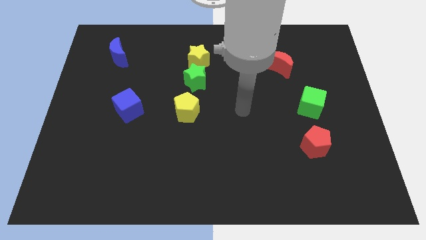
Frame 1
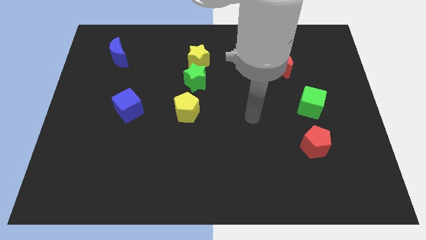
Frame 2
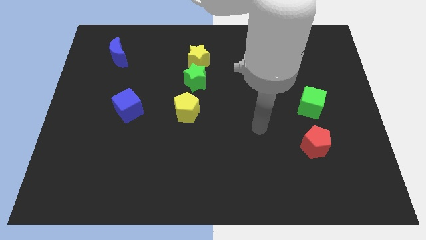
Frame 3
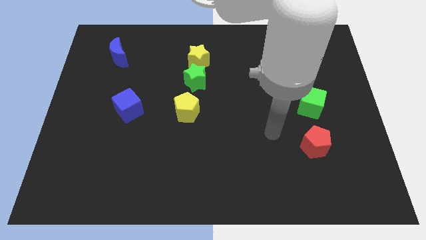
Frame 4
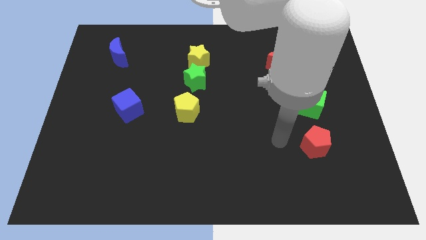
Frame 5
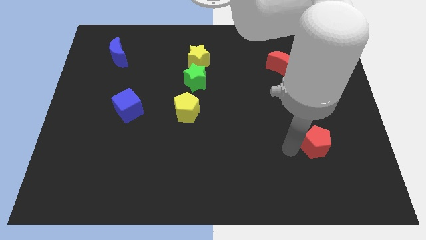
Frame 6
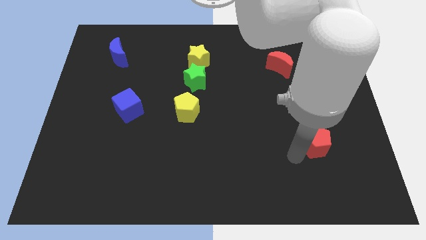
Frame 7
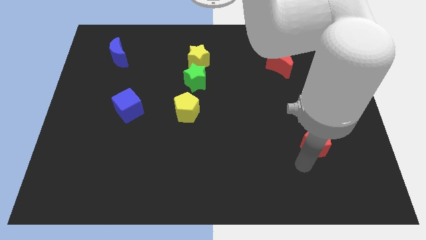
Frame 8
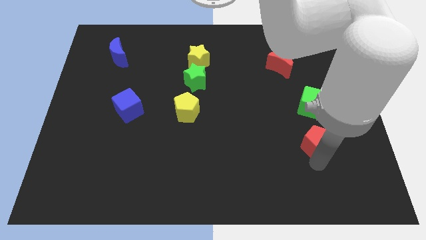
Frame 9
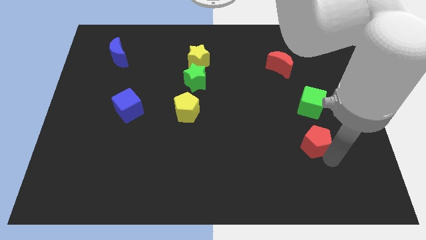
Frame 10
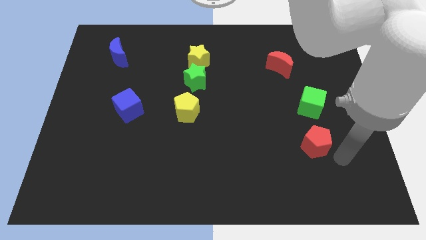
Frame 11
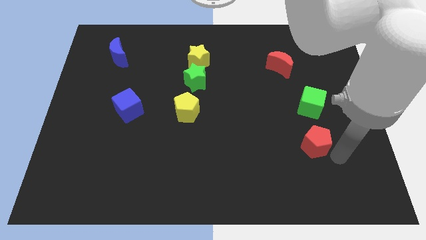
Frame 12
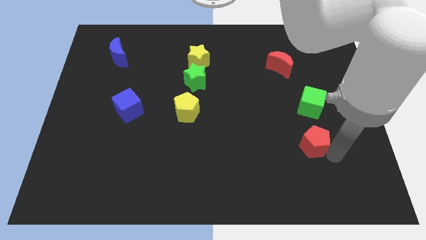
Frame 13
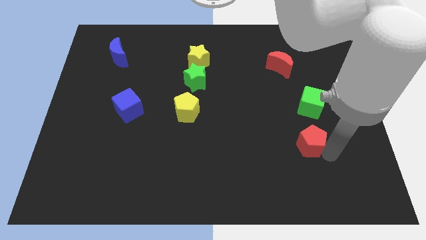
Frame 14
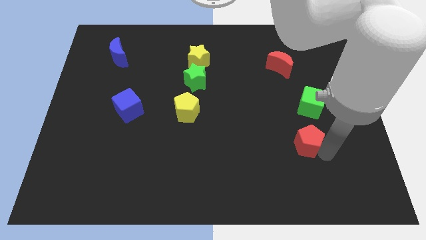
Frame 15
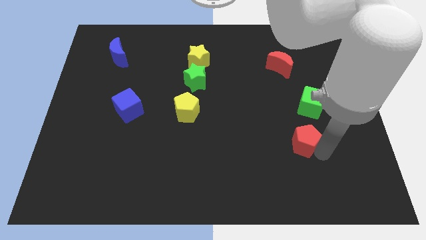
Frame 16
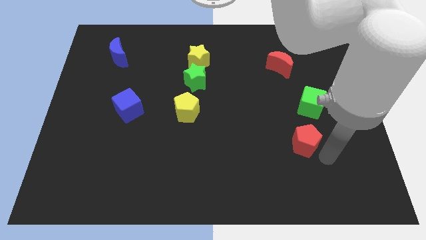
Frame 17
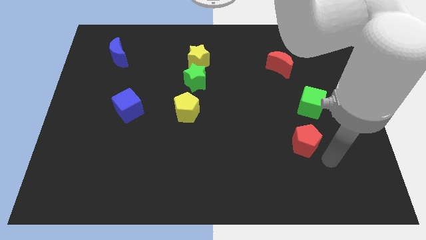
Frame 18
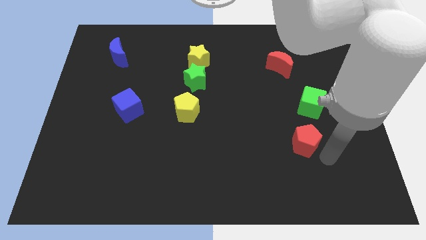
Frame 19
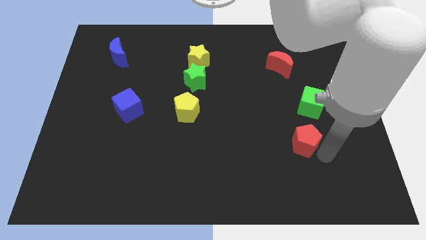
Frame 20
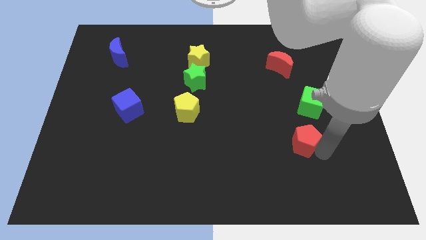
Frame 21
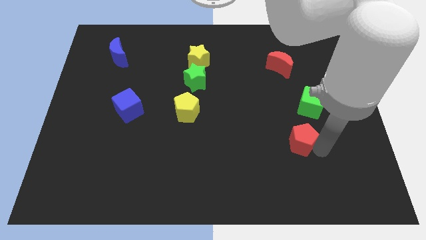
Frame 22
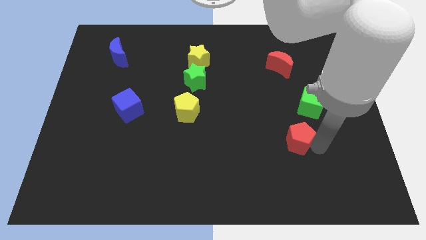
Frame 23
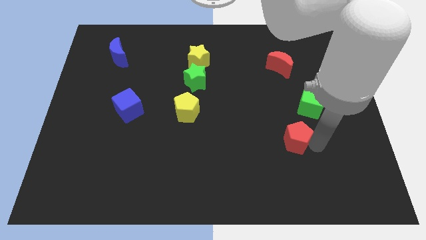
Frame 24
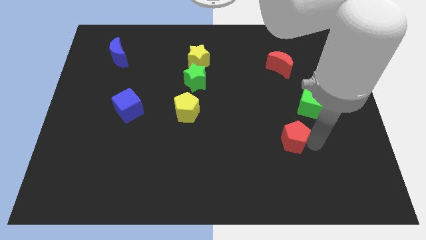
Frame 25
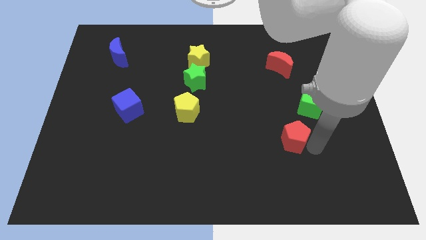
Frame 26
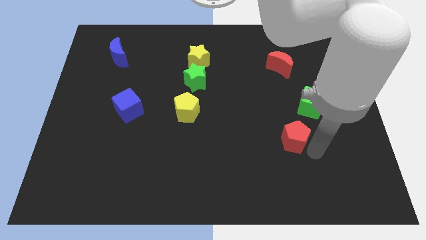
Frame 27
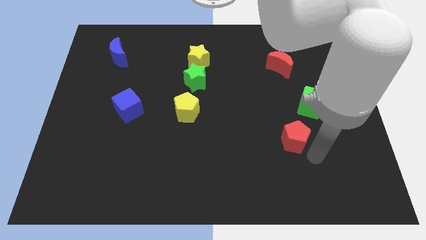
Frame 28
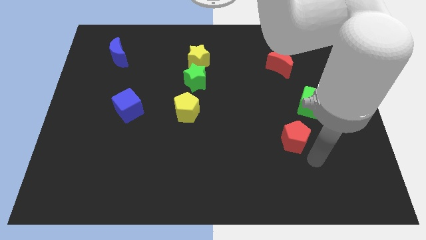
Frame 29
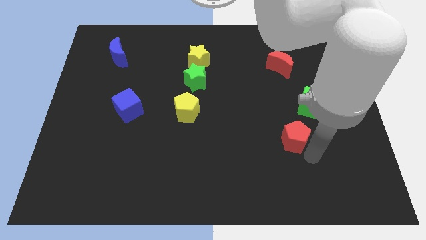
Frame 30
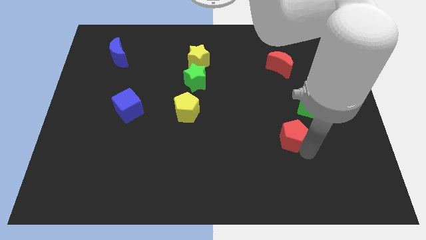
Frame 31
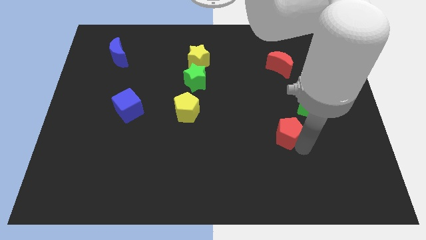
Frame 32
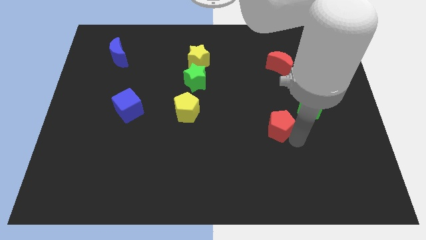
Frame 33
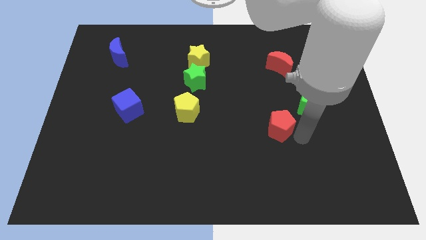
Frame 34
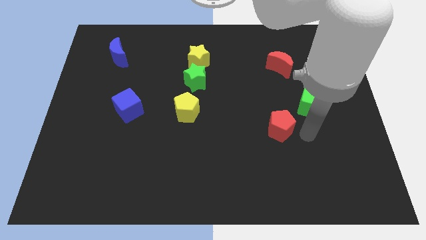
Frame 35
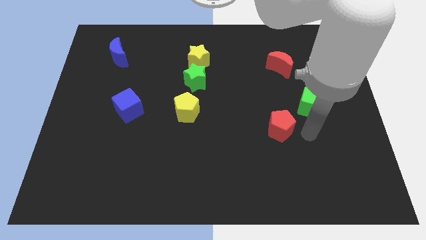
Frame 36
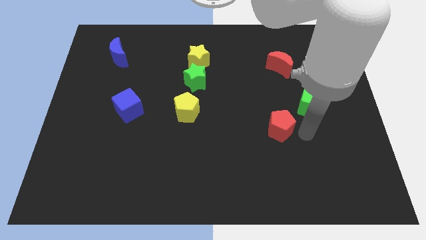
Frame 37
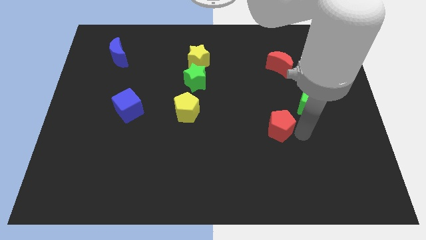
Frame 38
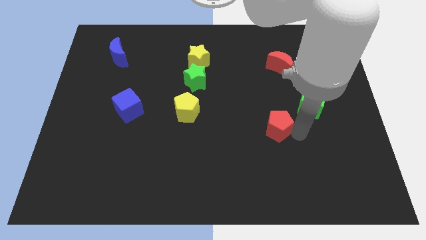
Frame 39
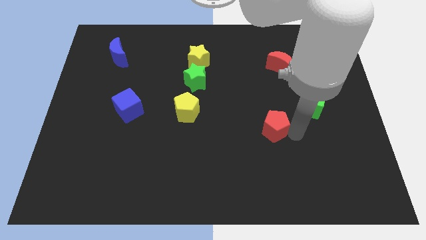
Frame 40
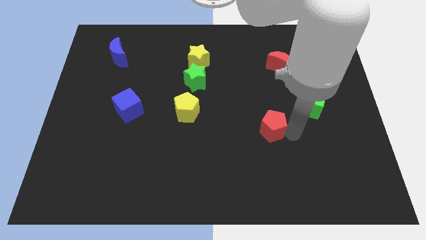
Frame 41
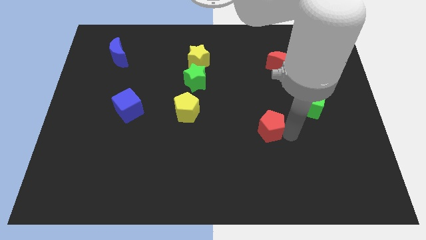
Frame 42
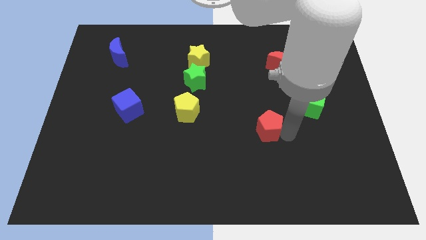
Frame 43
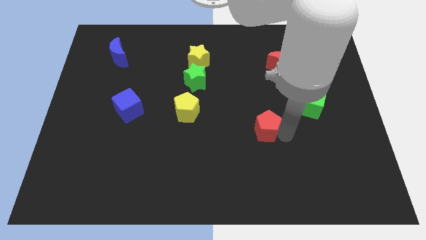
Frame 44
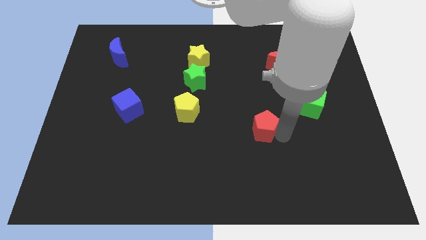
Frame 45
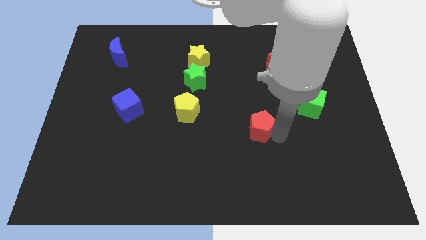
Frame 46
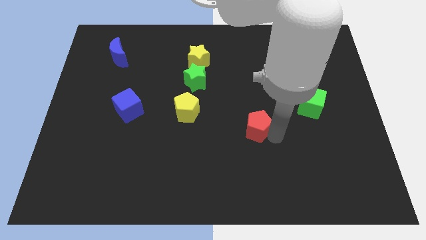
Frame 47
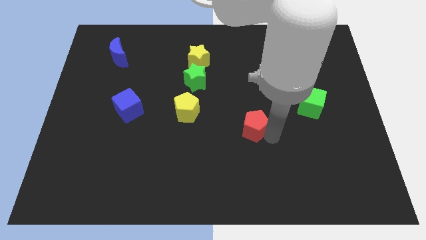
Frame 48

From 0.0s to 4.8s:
move the red pentagon to the middle of the board

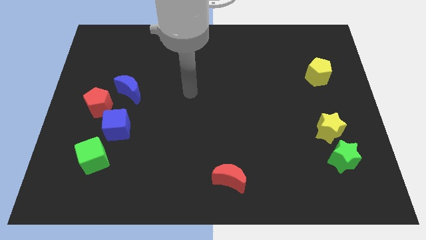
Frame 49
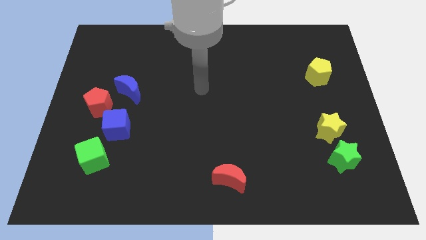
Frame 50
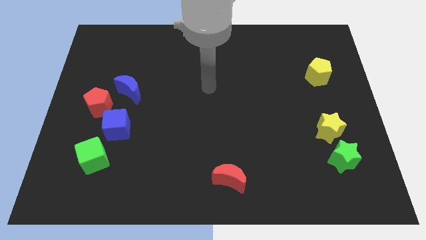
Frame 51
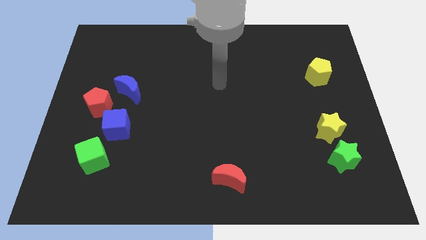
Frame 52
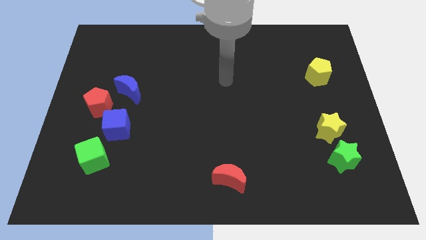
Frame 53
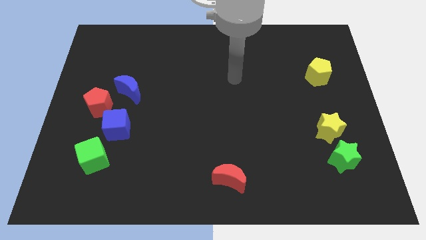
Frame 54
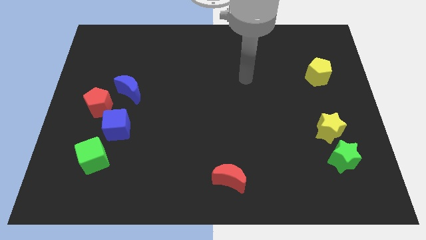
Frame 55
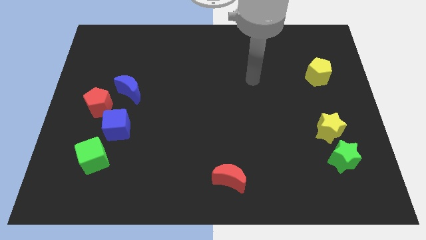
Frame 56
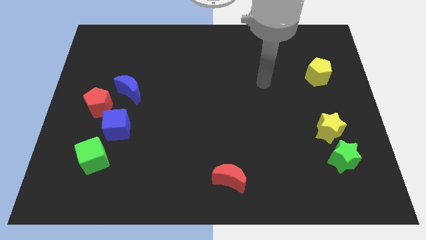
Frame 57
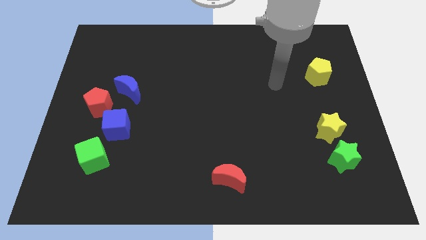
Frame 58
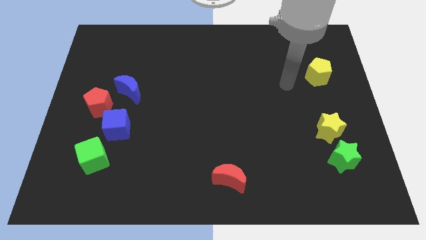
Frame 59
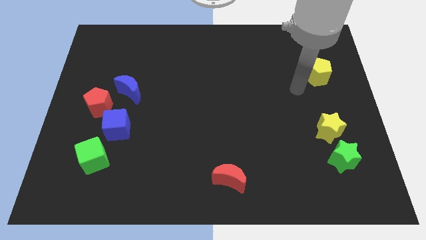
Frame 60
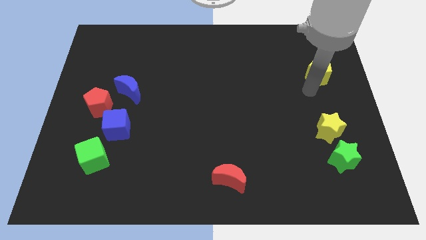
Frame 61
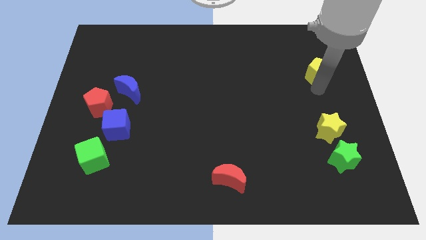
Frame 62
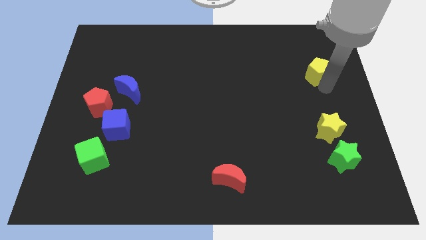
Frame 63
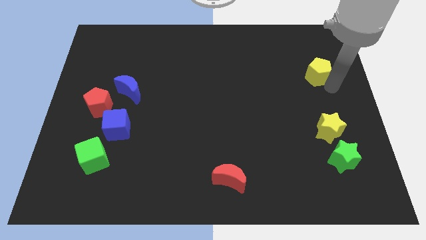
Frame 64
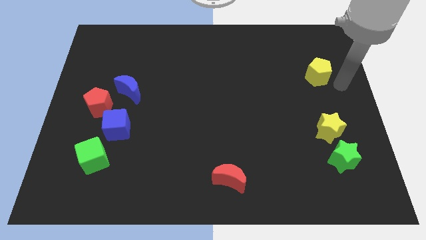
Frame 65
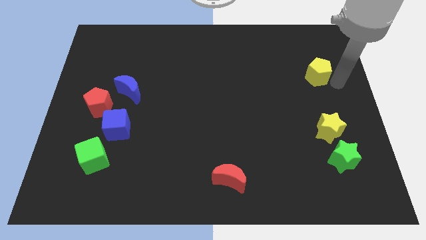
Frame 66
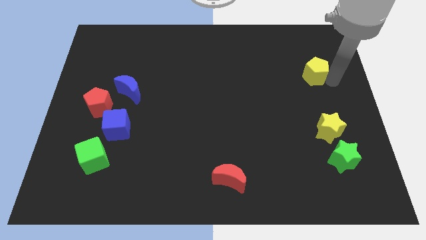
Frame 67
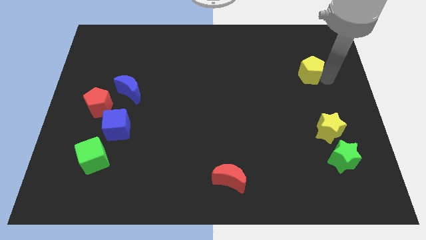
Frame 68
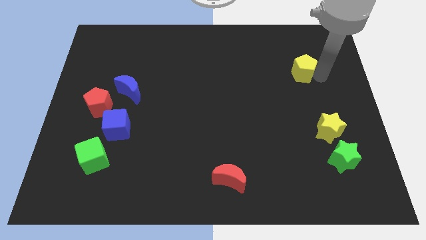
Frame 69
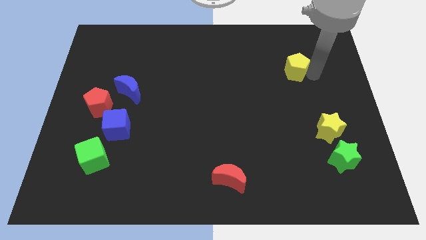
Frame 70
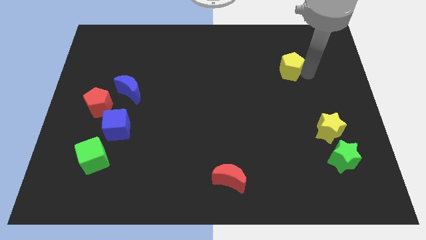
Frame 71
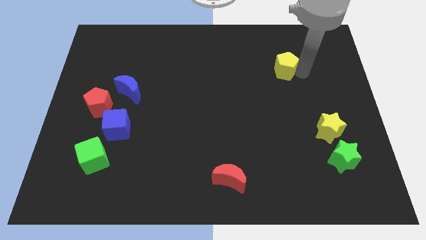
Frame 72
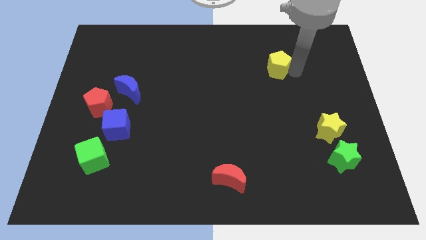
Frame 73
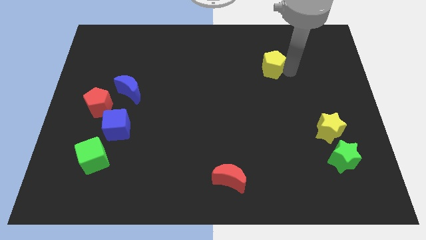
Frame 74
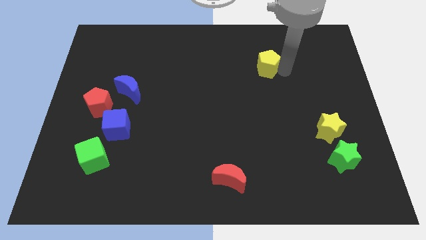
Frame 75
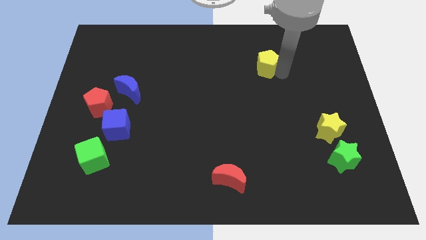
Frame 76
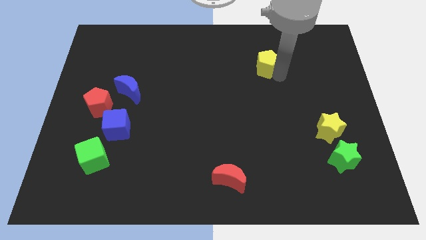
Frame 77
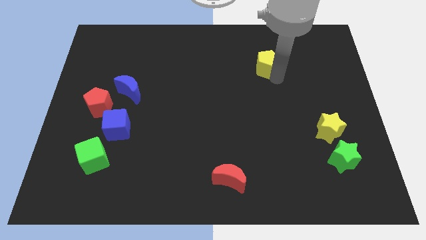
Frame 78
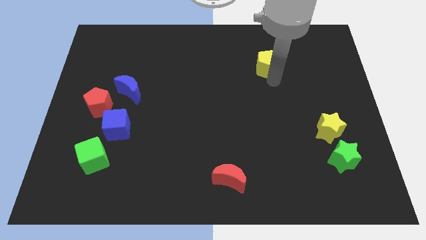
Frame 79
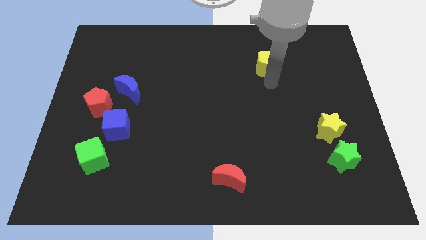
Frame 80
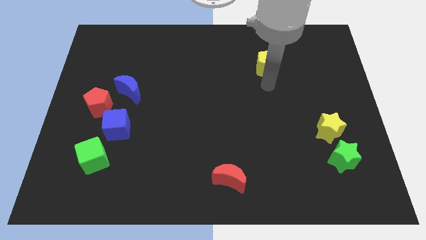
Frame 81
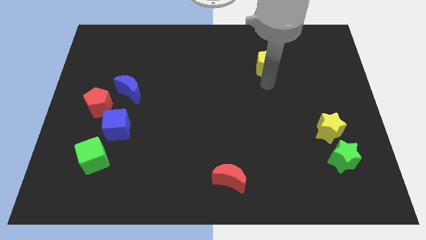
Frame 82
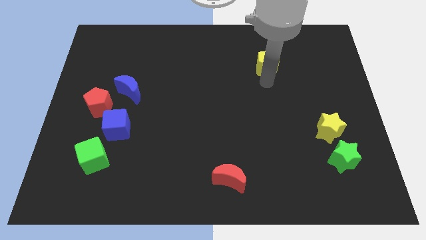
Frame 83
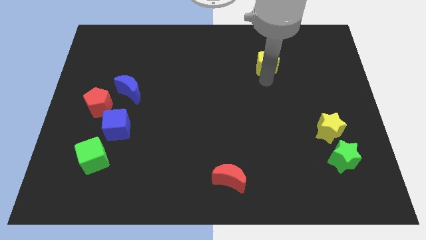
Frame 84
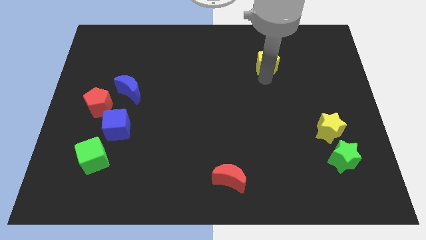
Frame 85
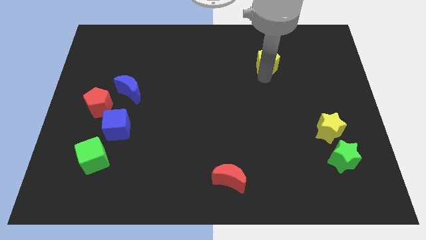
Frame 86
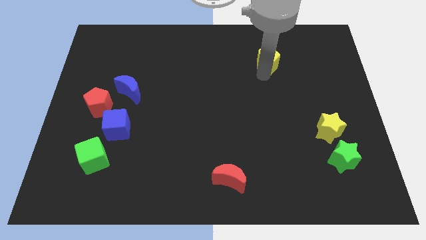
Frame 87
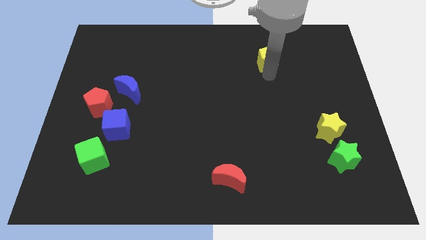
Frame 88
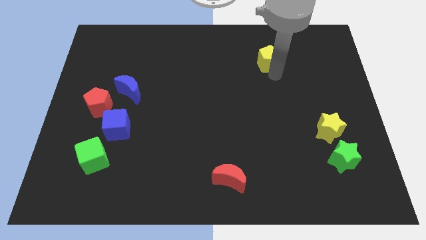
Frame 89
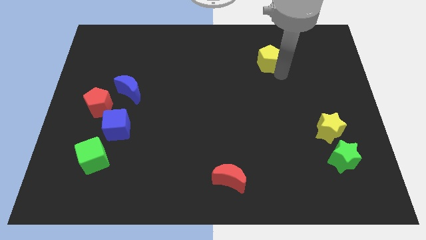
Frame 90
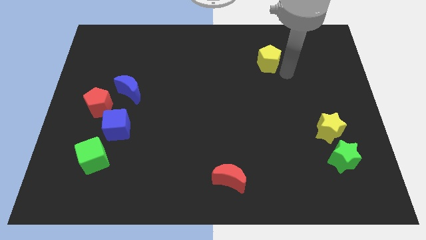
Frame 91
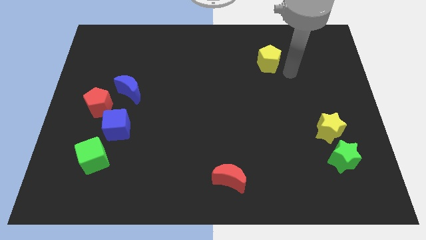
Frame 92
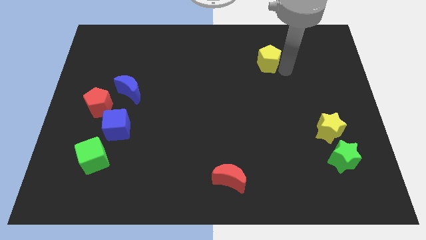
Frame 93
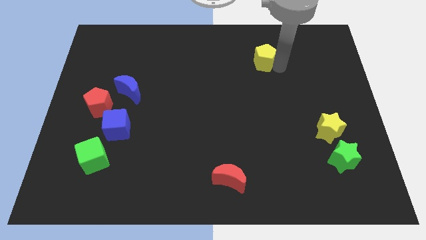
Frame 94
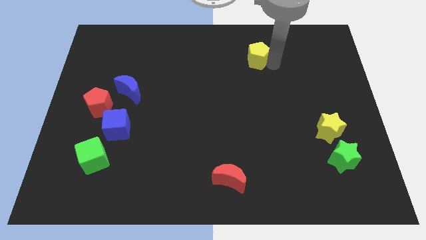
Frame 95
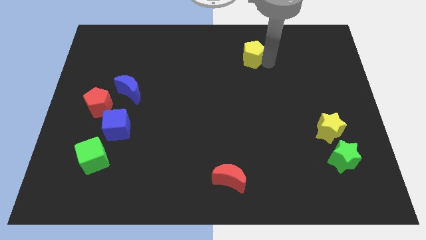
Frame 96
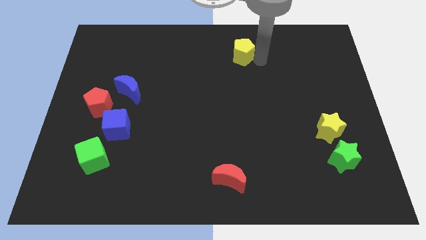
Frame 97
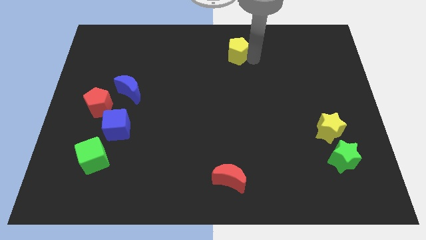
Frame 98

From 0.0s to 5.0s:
slide the yellow pentagon to the top
